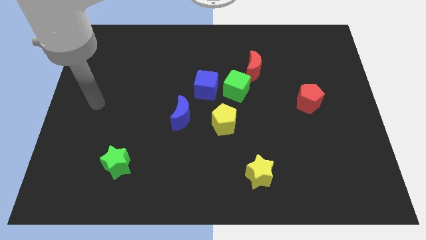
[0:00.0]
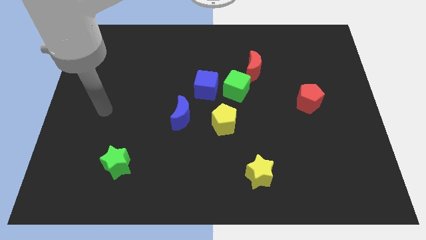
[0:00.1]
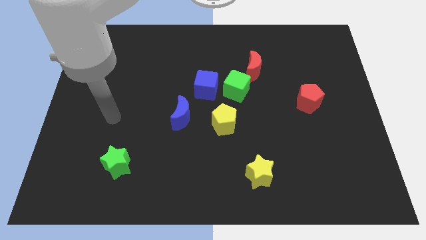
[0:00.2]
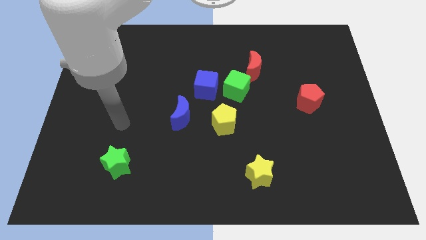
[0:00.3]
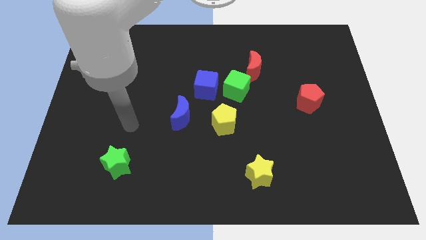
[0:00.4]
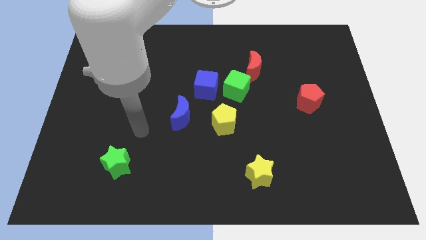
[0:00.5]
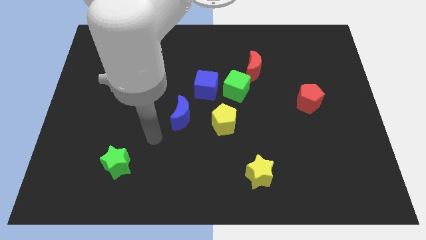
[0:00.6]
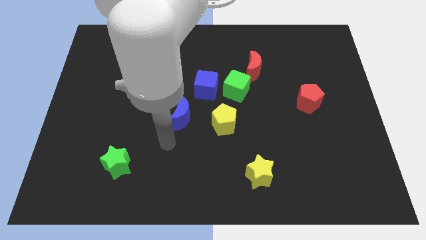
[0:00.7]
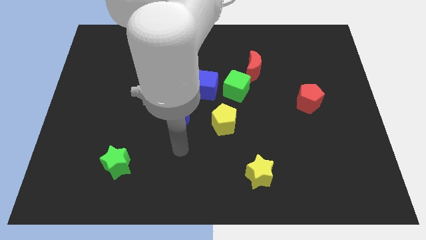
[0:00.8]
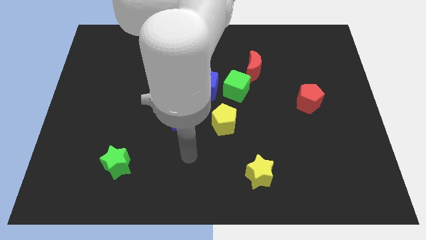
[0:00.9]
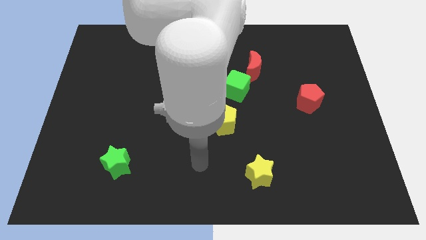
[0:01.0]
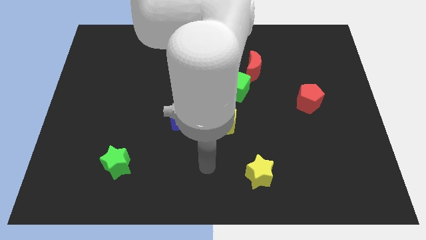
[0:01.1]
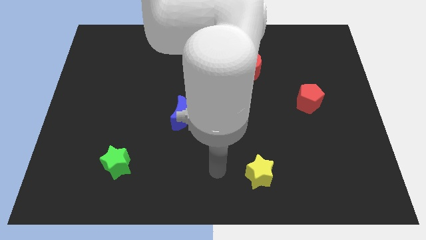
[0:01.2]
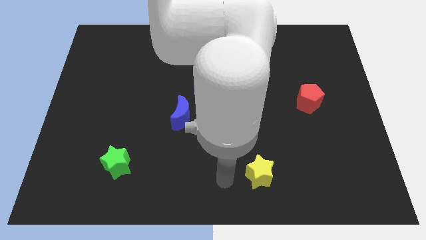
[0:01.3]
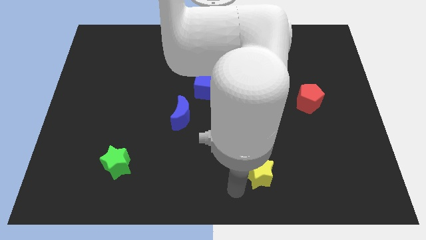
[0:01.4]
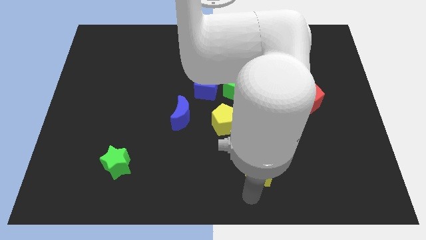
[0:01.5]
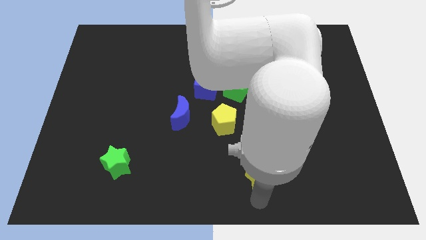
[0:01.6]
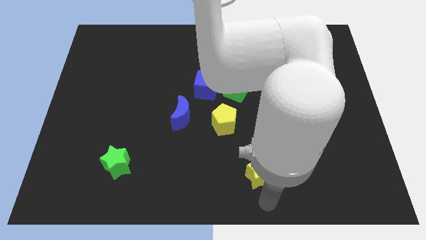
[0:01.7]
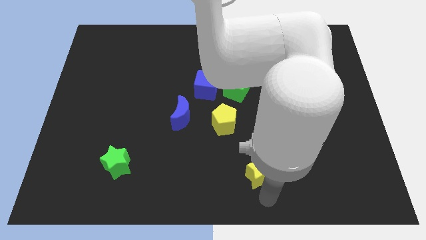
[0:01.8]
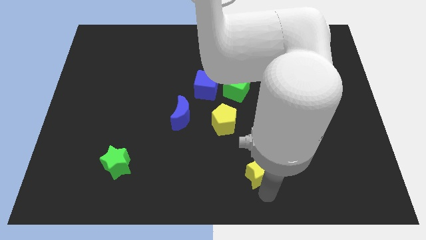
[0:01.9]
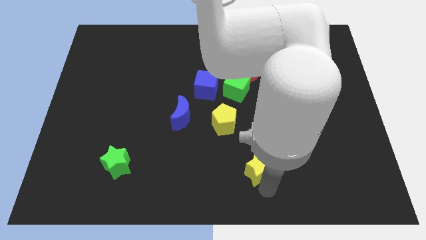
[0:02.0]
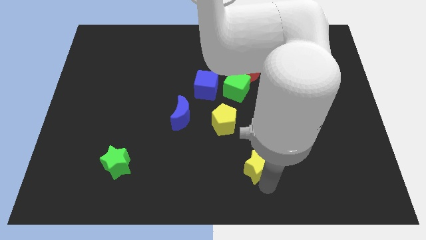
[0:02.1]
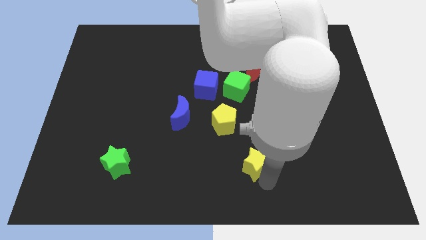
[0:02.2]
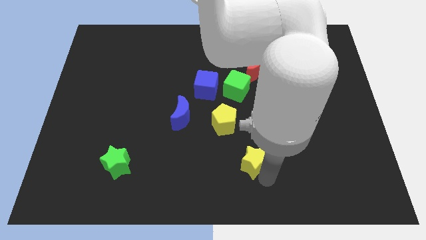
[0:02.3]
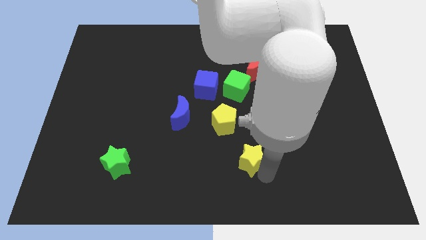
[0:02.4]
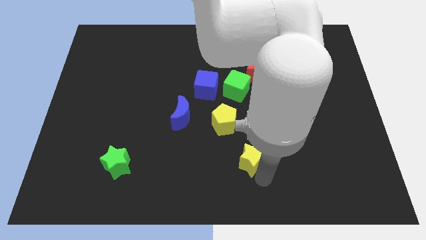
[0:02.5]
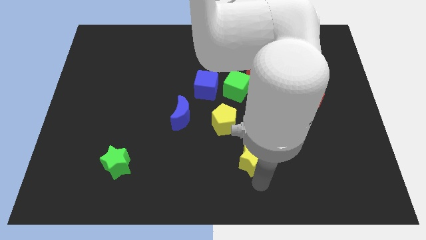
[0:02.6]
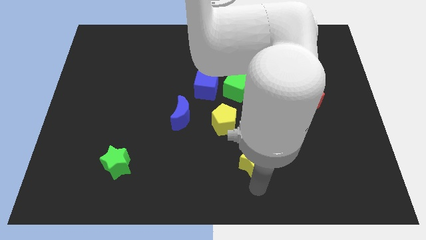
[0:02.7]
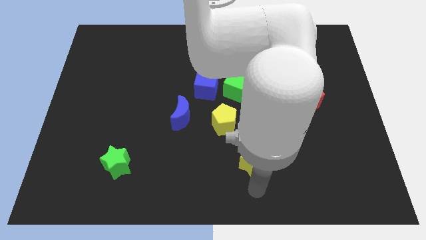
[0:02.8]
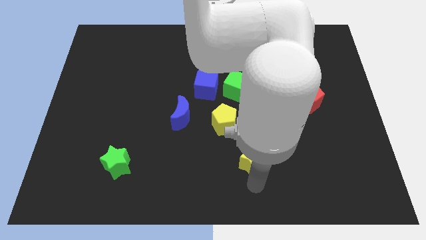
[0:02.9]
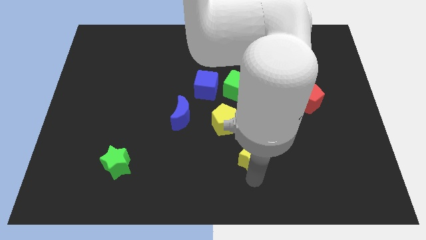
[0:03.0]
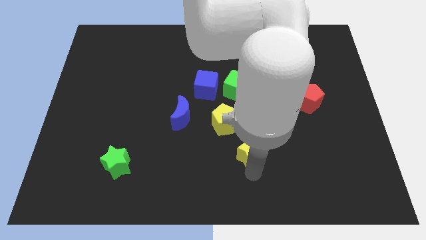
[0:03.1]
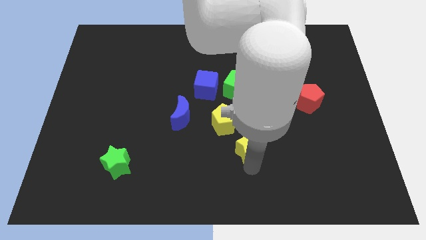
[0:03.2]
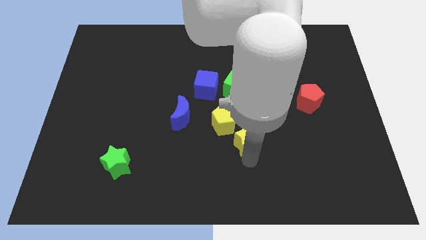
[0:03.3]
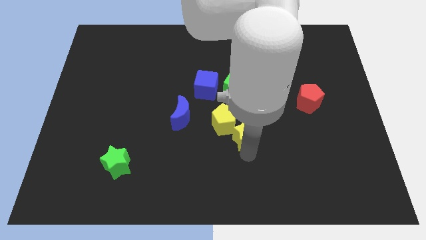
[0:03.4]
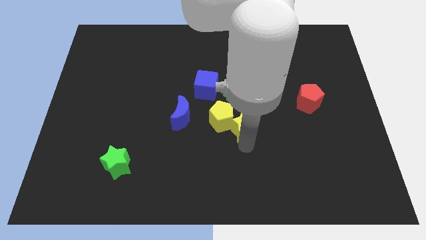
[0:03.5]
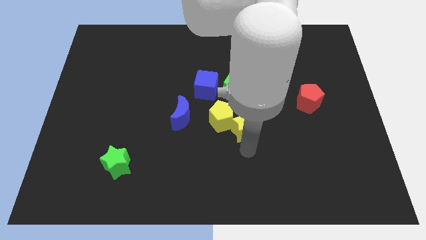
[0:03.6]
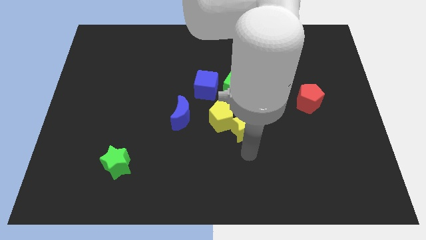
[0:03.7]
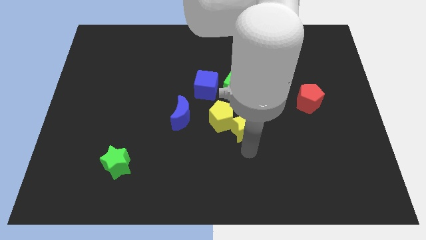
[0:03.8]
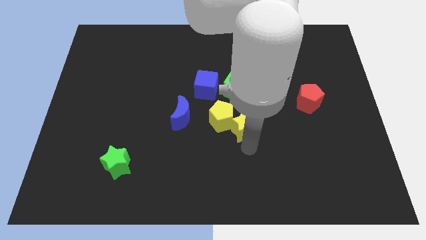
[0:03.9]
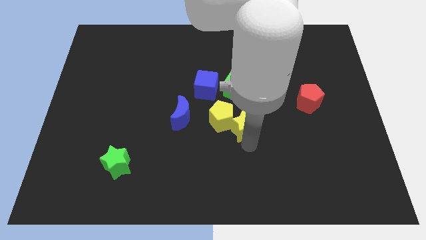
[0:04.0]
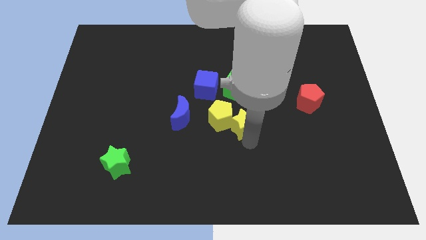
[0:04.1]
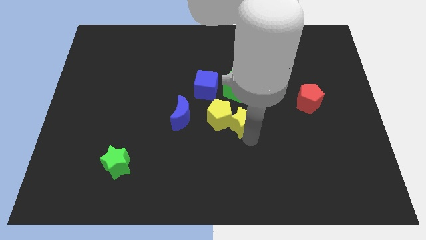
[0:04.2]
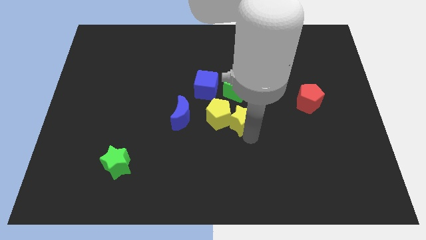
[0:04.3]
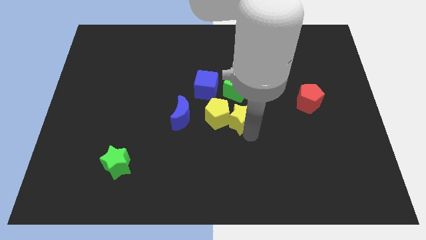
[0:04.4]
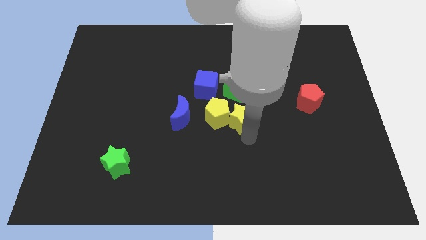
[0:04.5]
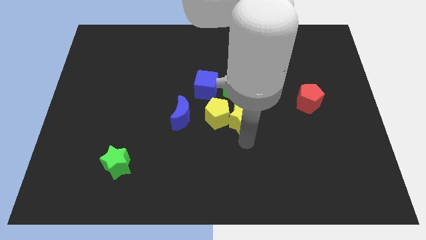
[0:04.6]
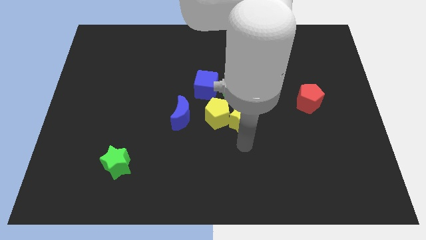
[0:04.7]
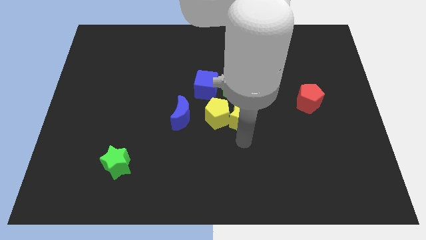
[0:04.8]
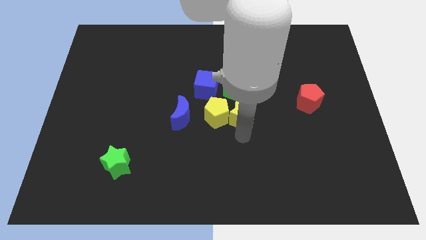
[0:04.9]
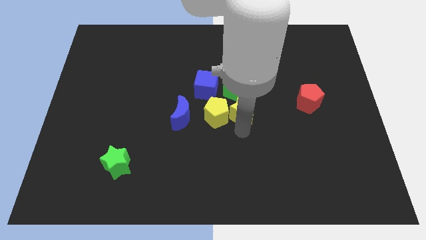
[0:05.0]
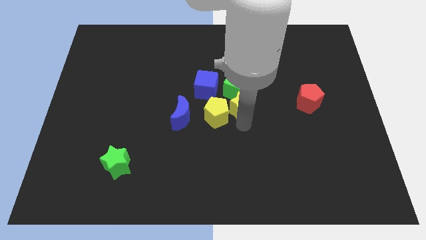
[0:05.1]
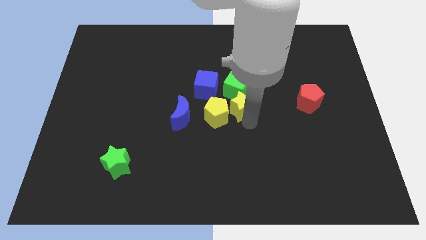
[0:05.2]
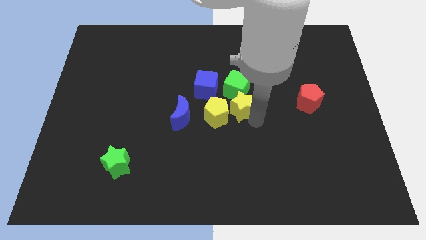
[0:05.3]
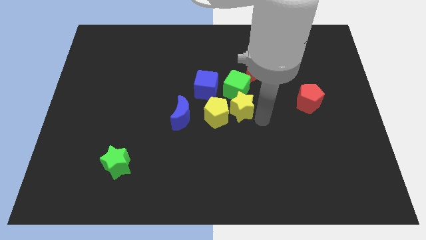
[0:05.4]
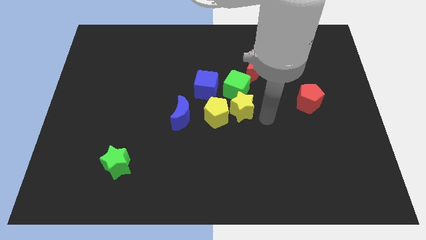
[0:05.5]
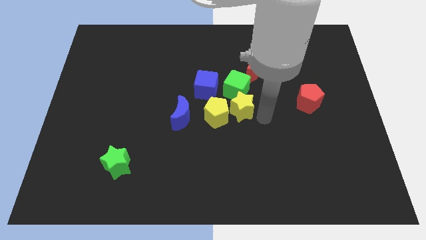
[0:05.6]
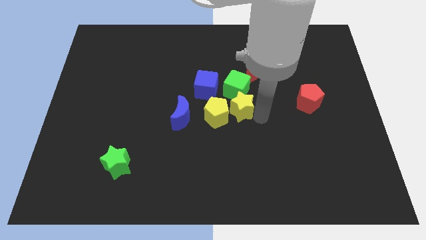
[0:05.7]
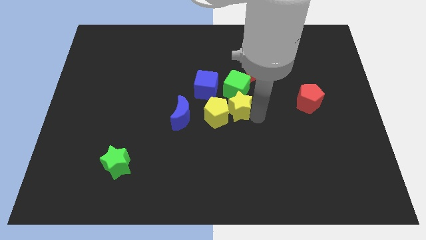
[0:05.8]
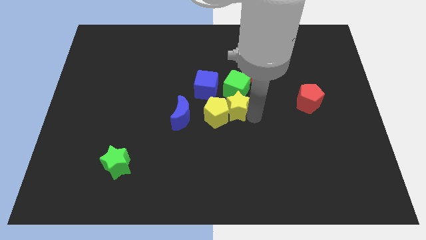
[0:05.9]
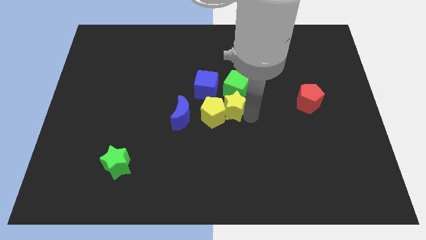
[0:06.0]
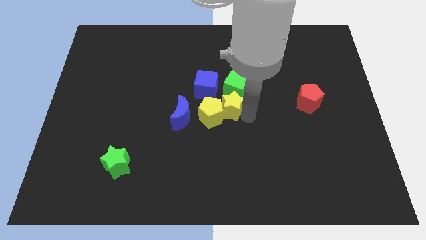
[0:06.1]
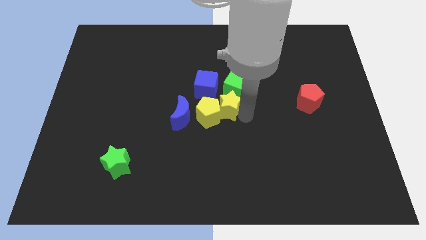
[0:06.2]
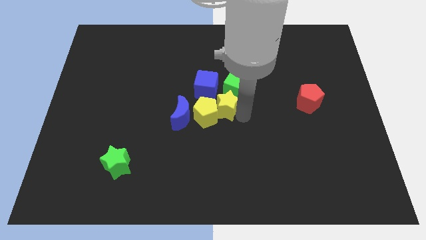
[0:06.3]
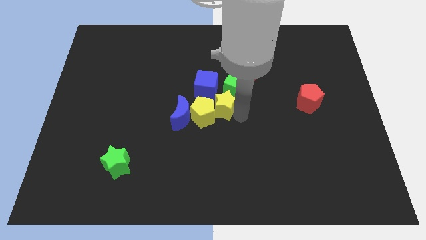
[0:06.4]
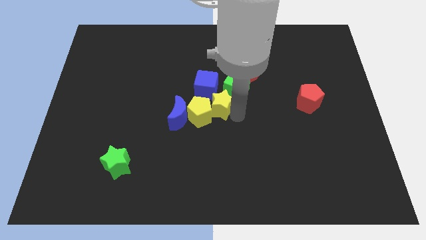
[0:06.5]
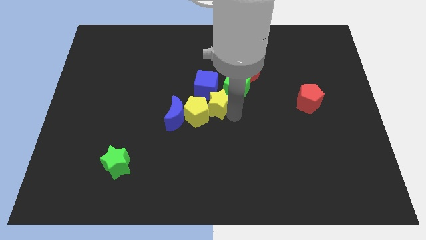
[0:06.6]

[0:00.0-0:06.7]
move the yellow star to the blue cube

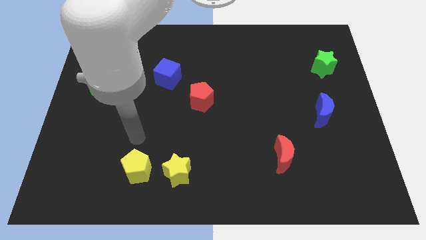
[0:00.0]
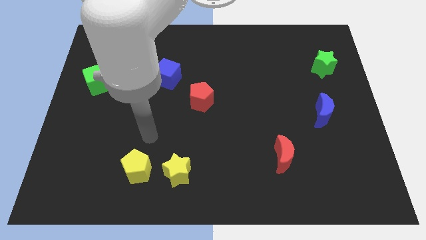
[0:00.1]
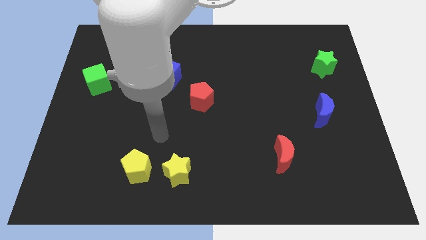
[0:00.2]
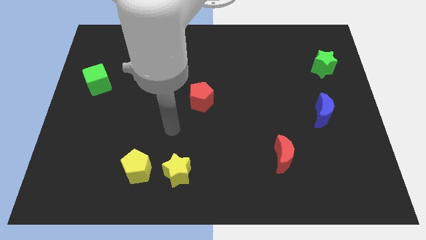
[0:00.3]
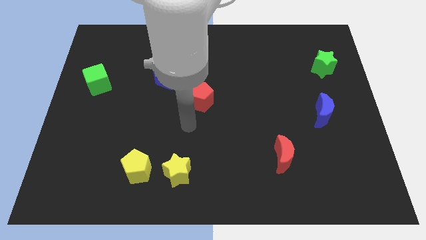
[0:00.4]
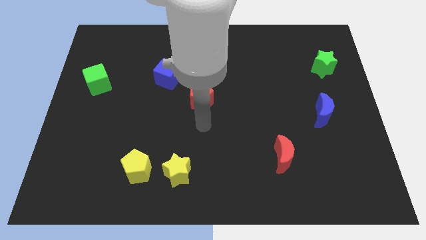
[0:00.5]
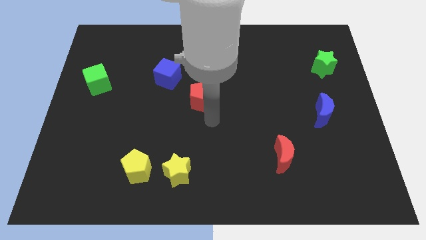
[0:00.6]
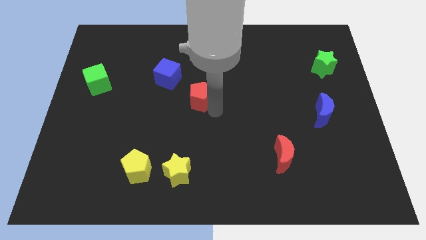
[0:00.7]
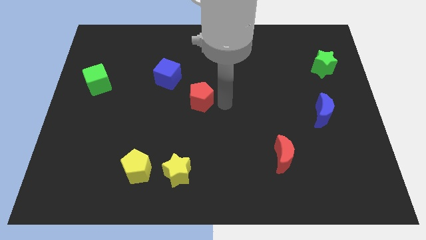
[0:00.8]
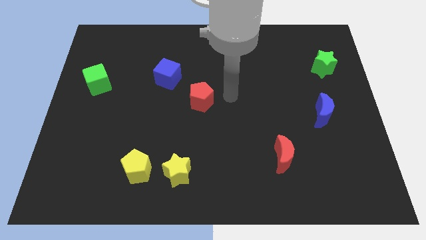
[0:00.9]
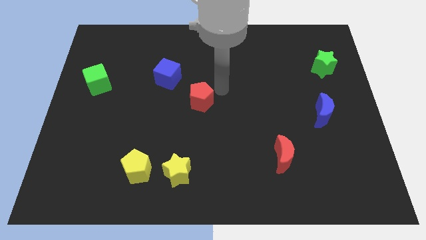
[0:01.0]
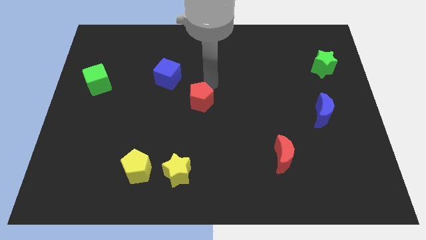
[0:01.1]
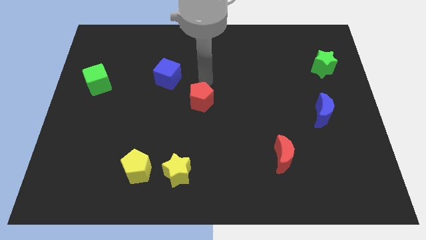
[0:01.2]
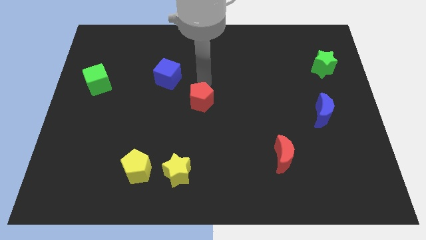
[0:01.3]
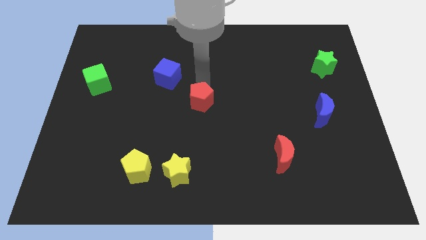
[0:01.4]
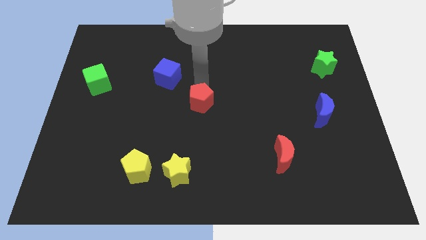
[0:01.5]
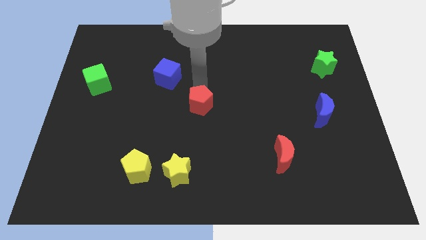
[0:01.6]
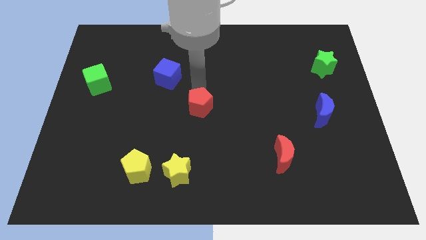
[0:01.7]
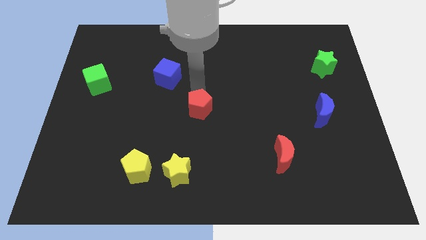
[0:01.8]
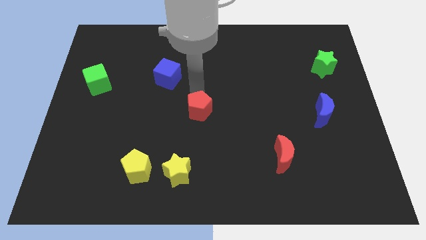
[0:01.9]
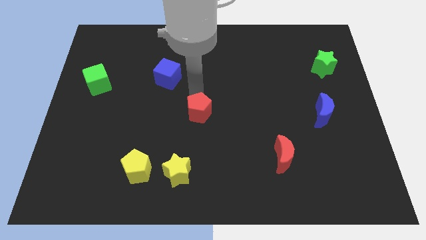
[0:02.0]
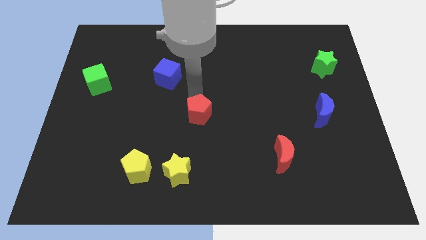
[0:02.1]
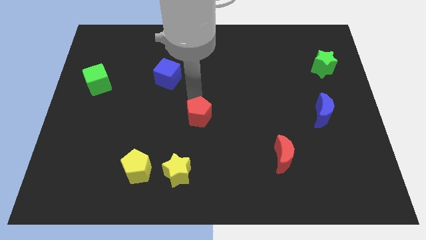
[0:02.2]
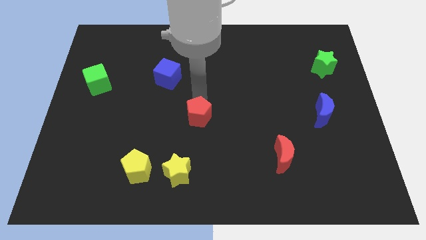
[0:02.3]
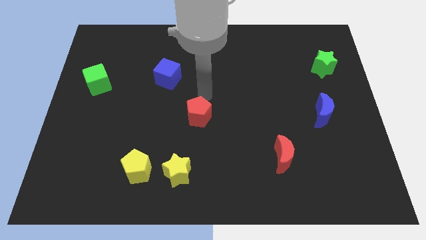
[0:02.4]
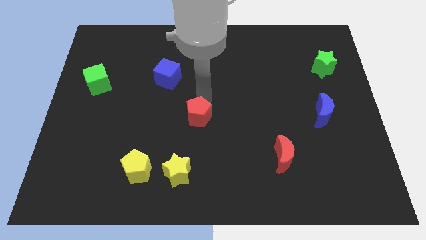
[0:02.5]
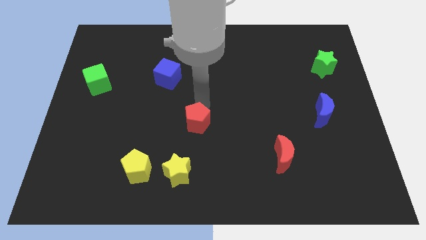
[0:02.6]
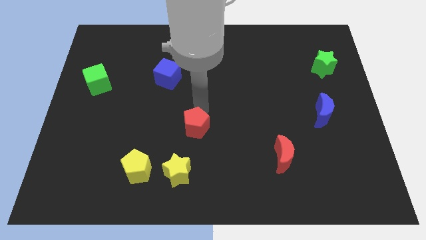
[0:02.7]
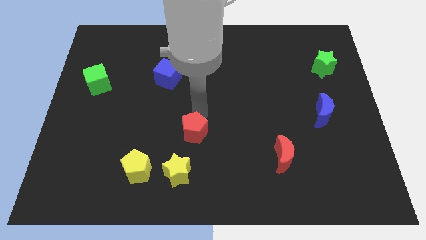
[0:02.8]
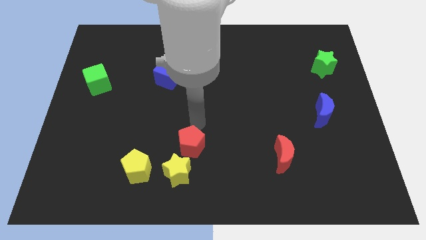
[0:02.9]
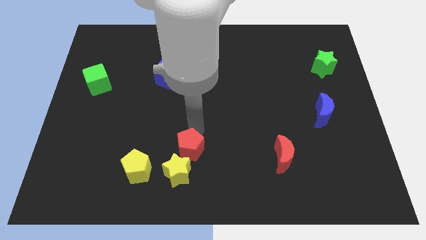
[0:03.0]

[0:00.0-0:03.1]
move the red pentagon close to the yellow star
